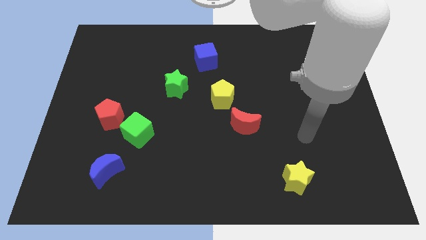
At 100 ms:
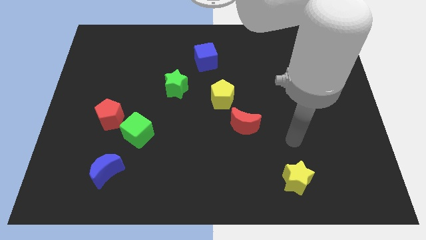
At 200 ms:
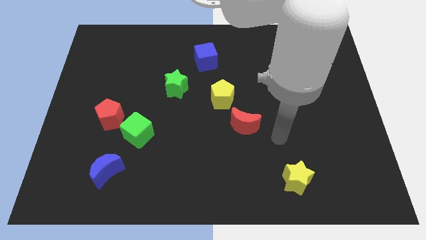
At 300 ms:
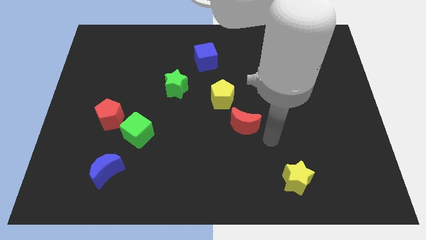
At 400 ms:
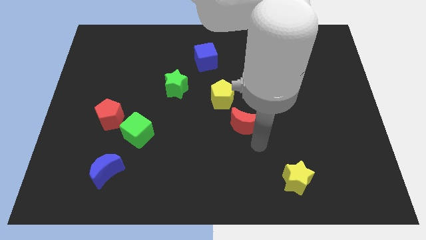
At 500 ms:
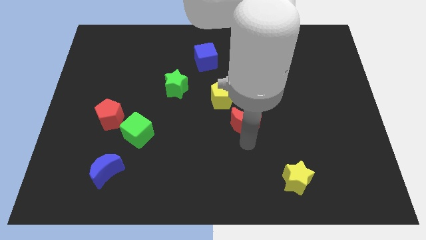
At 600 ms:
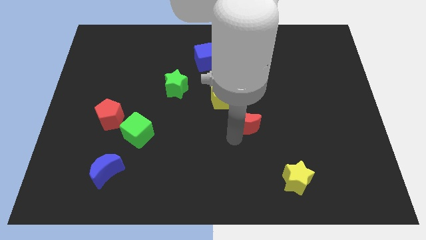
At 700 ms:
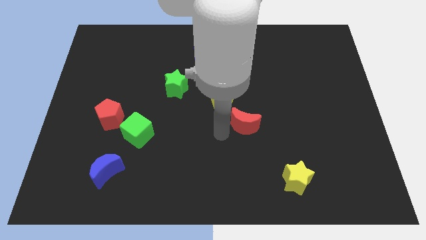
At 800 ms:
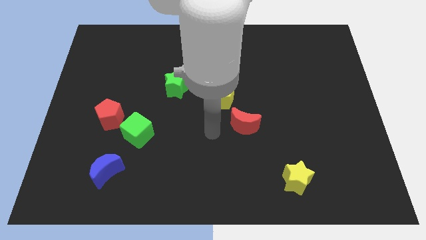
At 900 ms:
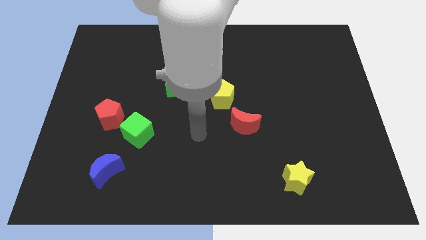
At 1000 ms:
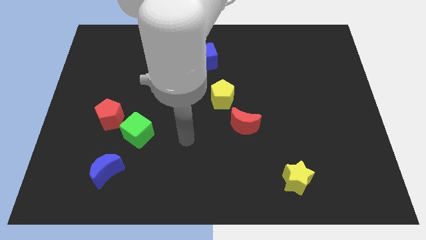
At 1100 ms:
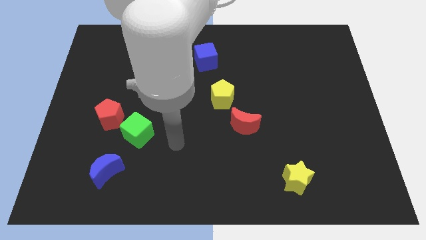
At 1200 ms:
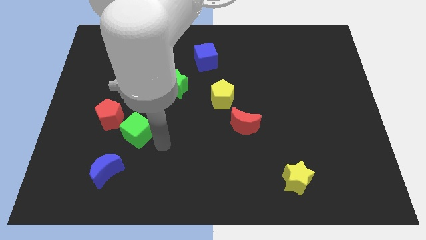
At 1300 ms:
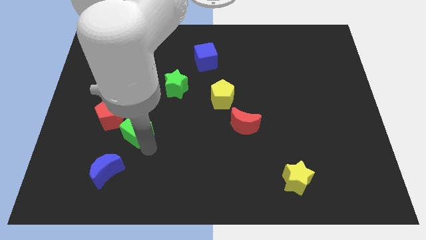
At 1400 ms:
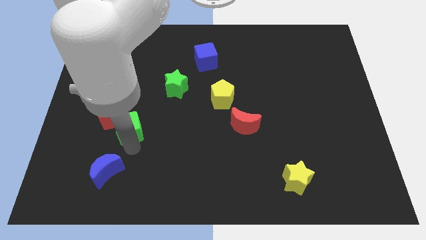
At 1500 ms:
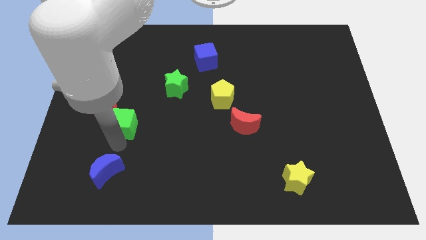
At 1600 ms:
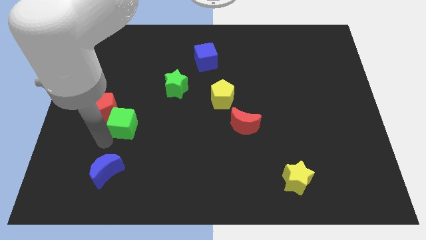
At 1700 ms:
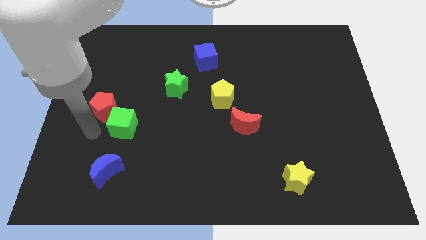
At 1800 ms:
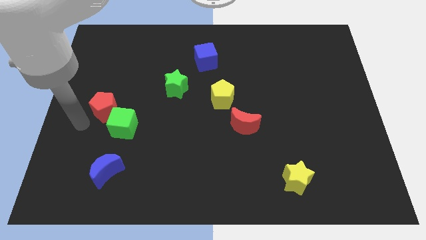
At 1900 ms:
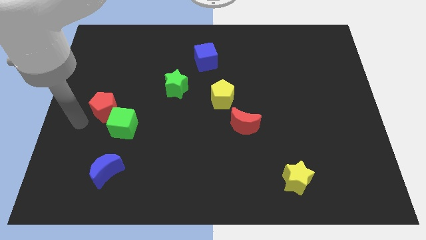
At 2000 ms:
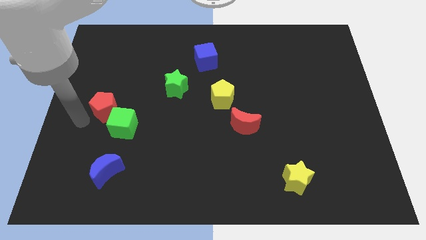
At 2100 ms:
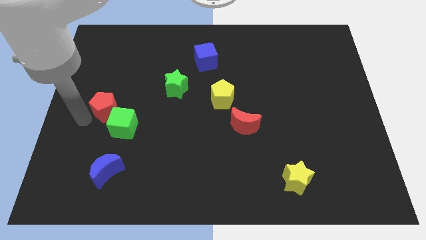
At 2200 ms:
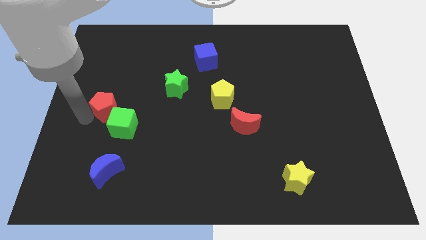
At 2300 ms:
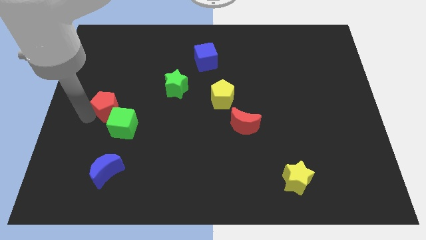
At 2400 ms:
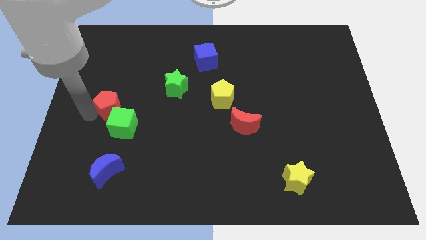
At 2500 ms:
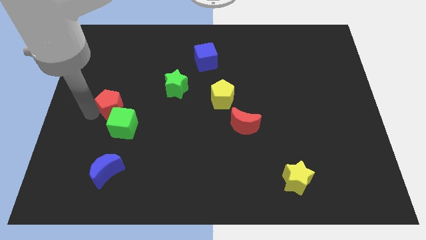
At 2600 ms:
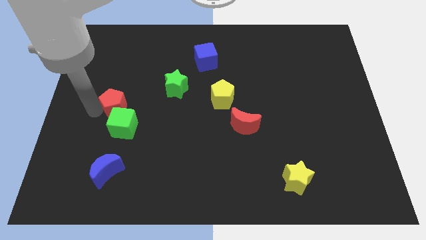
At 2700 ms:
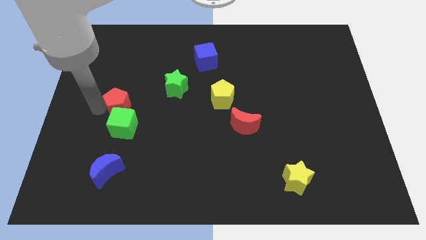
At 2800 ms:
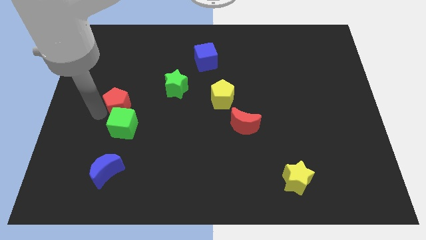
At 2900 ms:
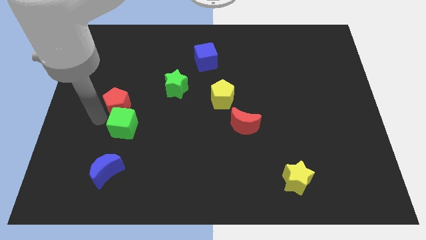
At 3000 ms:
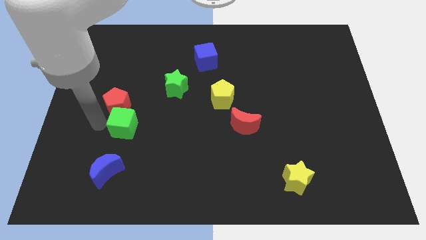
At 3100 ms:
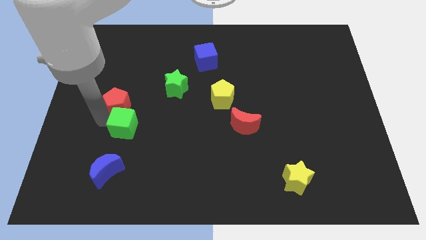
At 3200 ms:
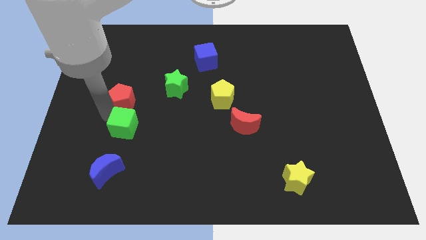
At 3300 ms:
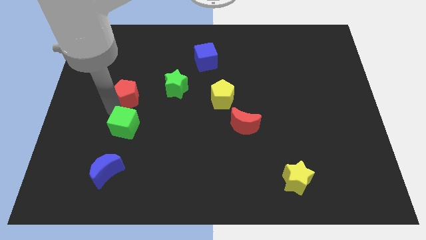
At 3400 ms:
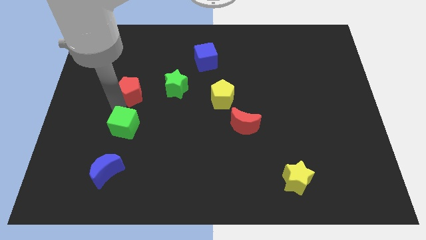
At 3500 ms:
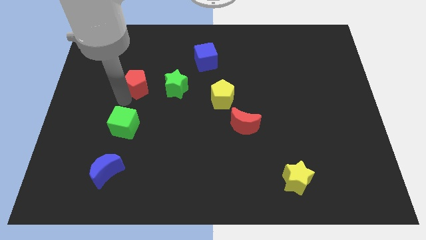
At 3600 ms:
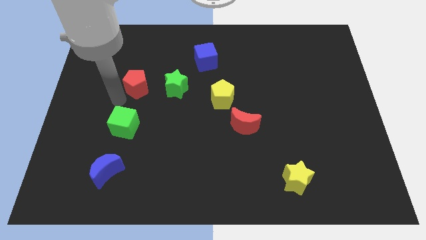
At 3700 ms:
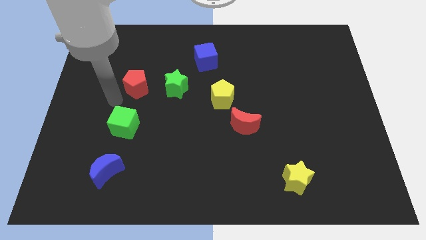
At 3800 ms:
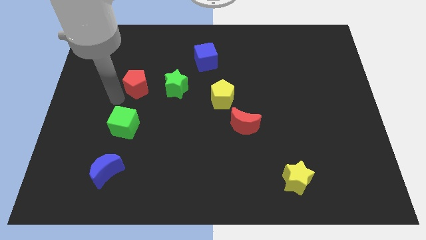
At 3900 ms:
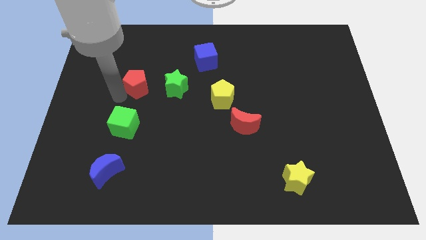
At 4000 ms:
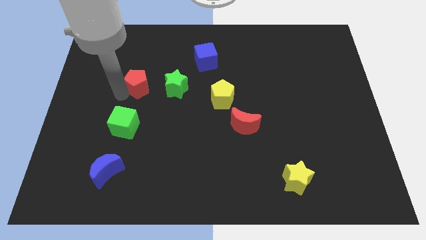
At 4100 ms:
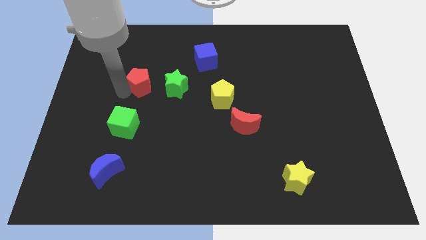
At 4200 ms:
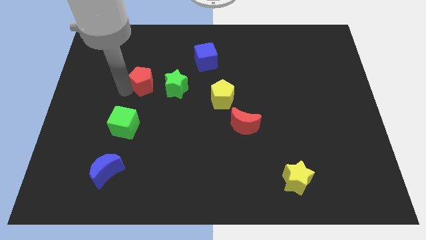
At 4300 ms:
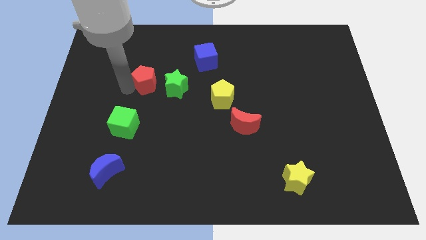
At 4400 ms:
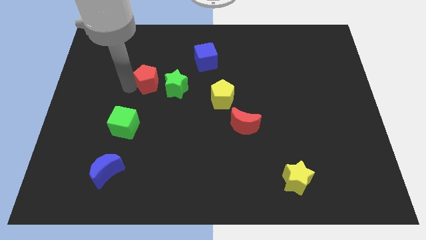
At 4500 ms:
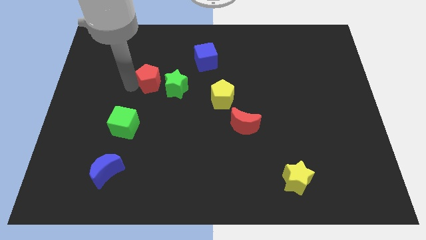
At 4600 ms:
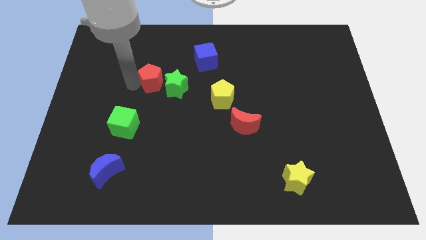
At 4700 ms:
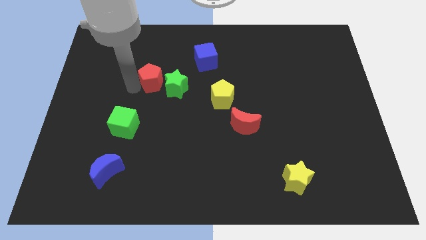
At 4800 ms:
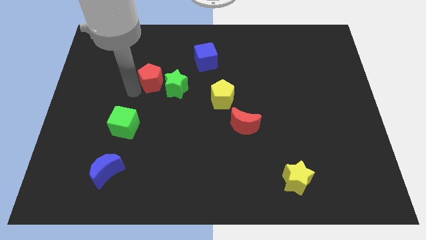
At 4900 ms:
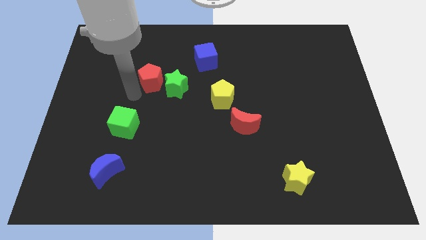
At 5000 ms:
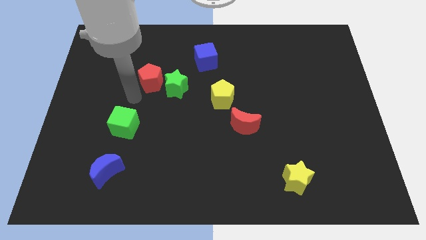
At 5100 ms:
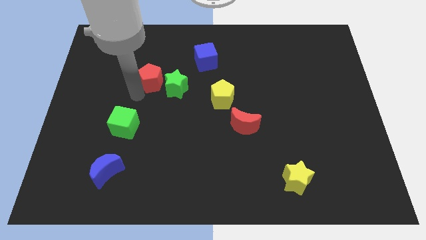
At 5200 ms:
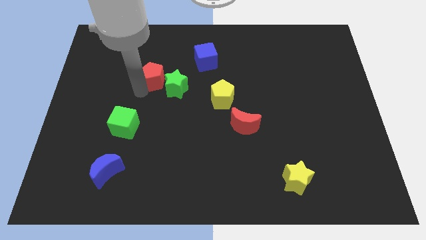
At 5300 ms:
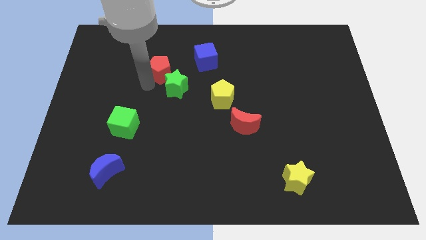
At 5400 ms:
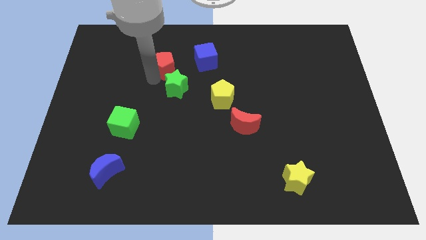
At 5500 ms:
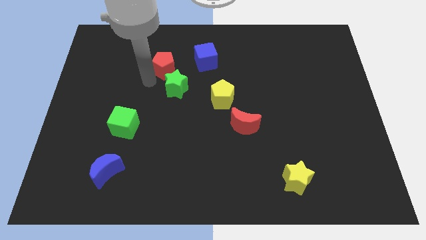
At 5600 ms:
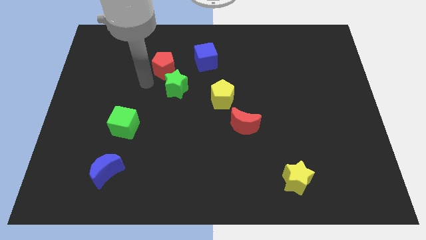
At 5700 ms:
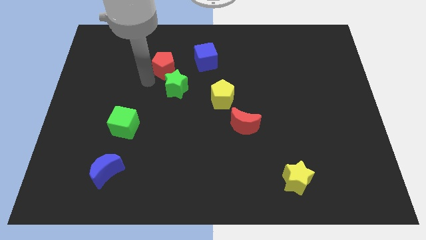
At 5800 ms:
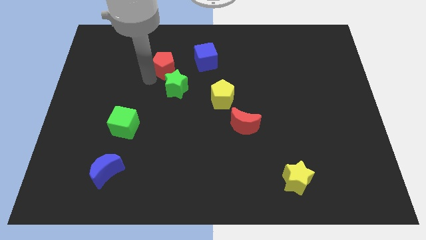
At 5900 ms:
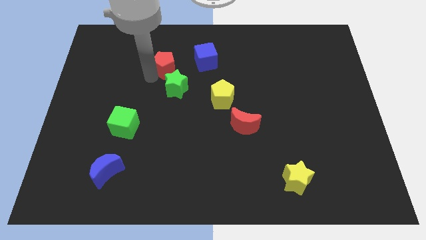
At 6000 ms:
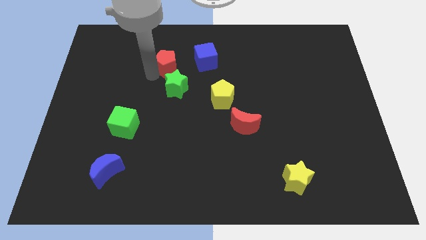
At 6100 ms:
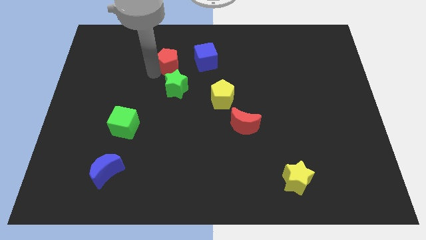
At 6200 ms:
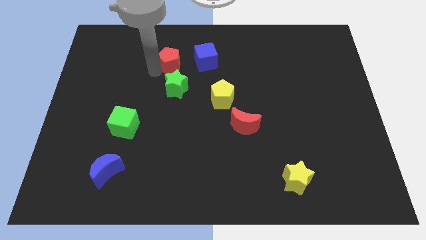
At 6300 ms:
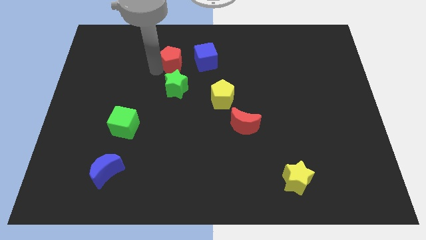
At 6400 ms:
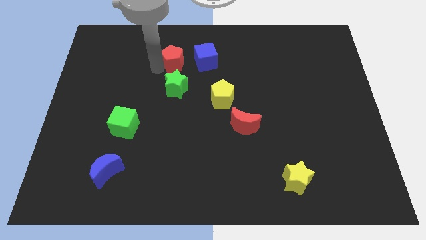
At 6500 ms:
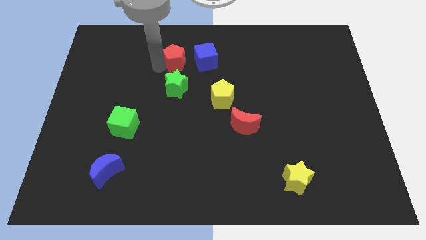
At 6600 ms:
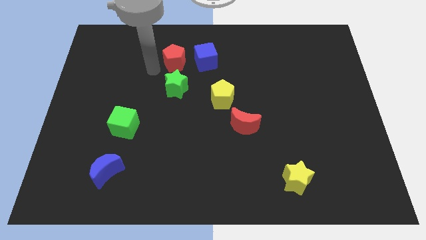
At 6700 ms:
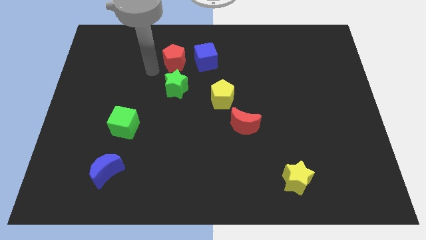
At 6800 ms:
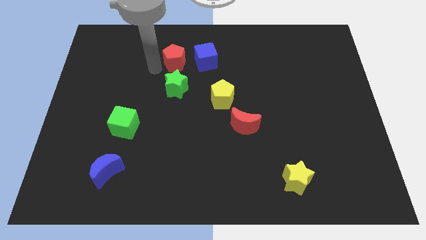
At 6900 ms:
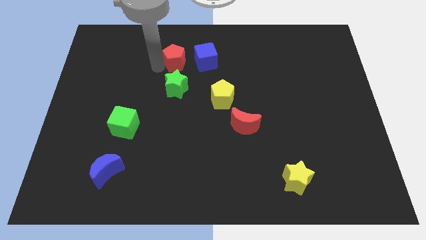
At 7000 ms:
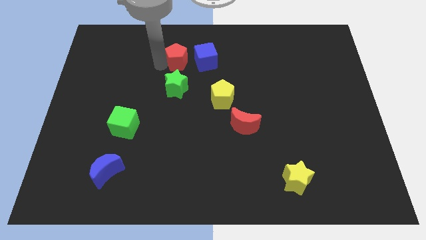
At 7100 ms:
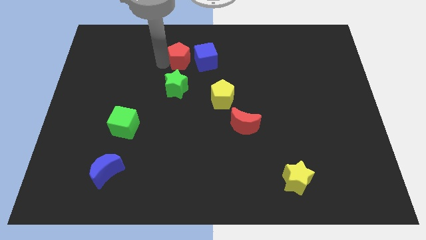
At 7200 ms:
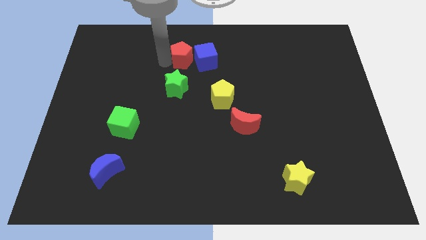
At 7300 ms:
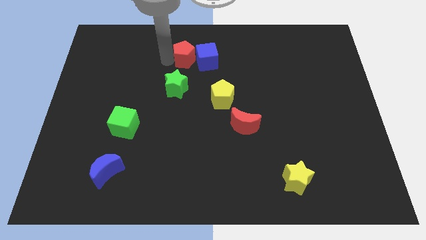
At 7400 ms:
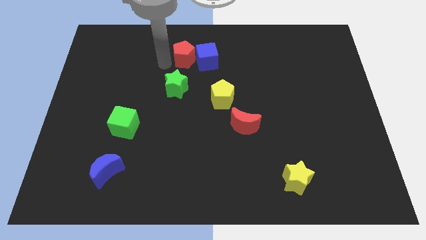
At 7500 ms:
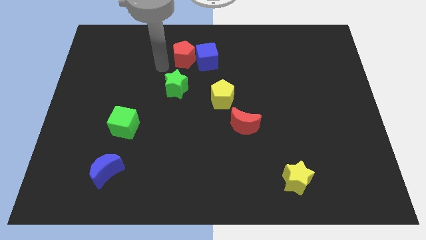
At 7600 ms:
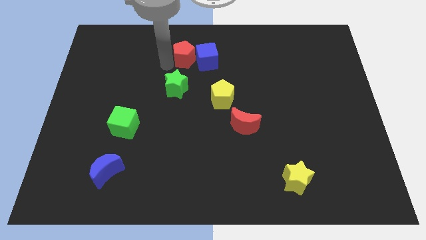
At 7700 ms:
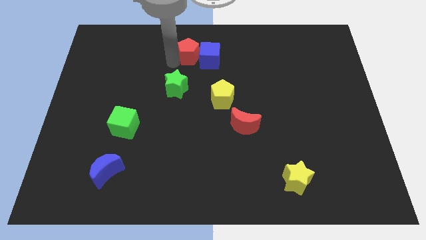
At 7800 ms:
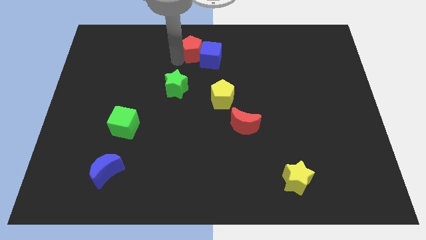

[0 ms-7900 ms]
put the red pentagon to the top
